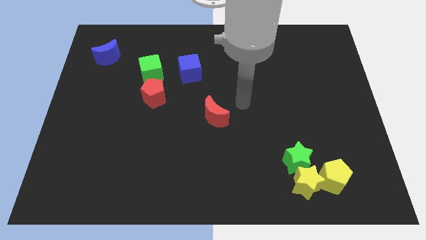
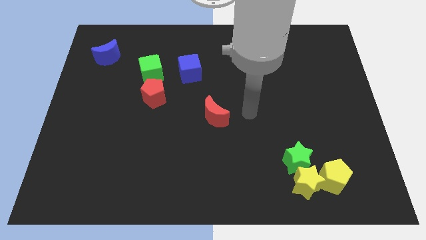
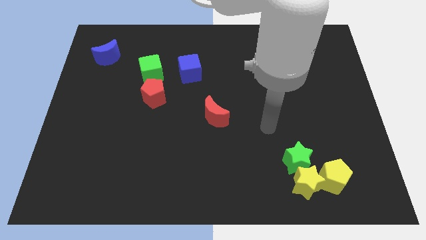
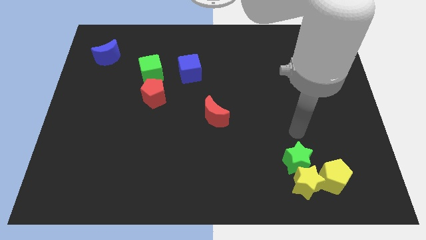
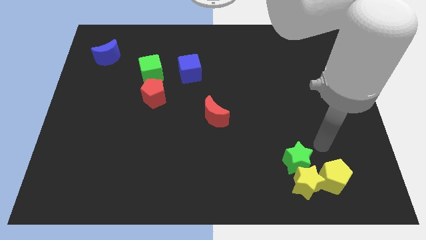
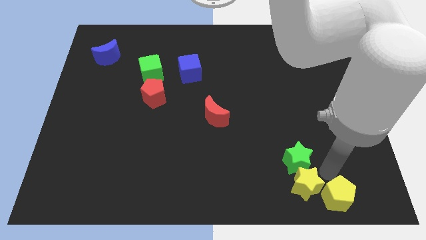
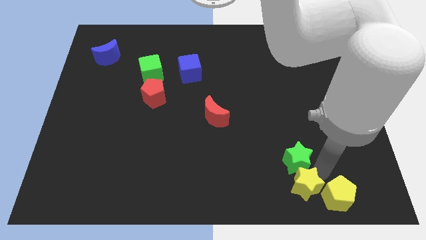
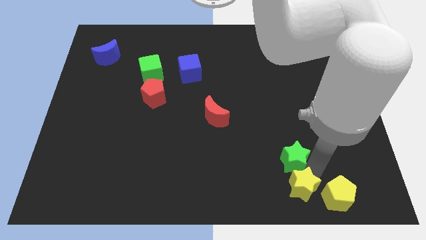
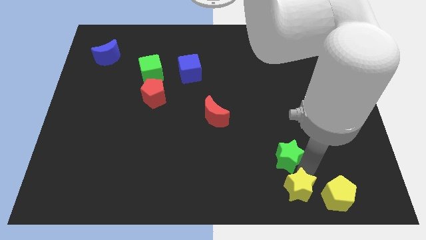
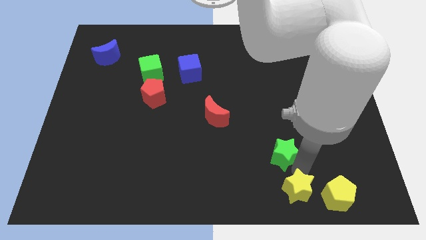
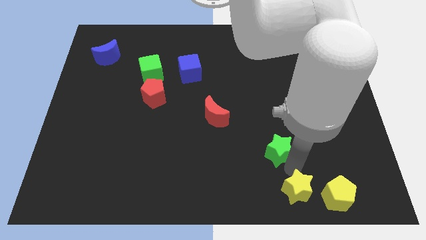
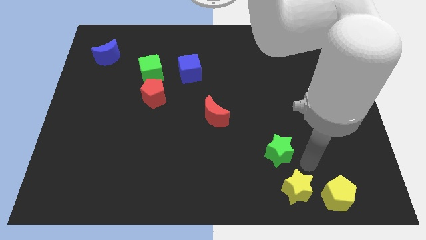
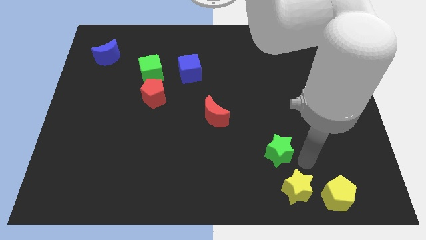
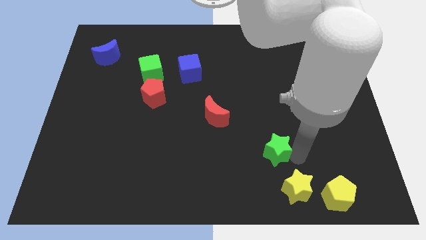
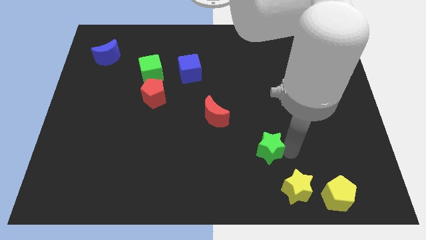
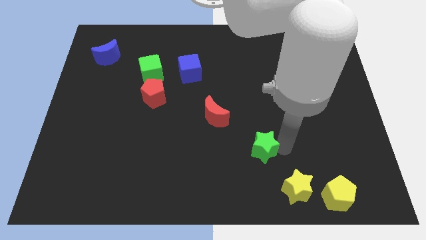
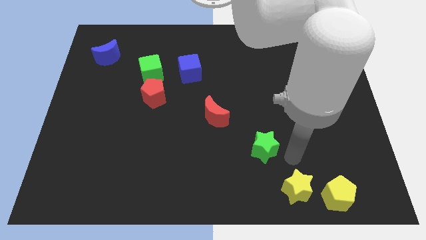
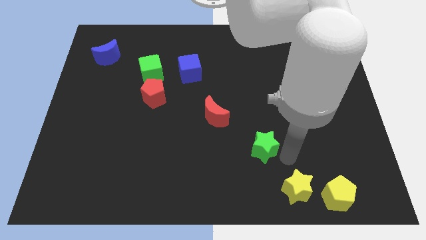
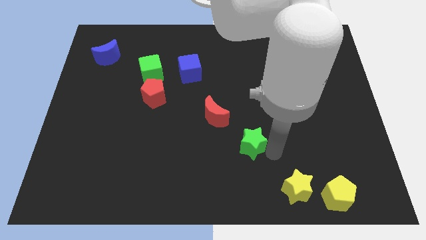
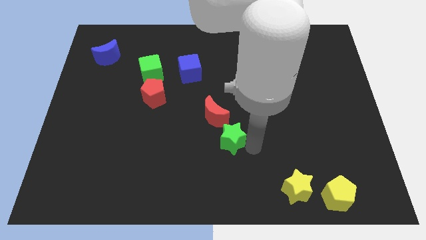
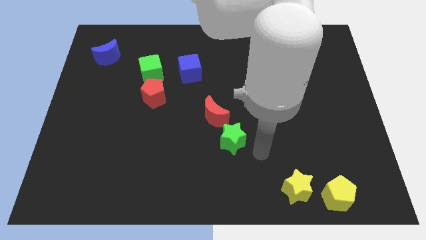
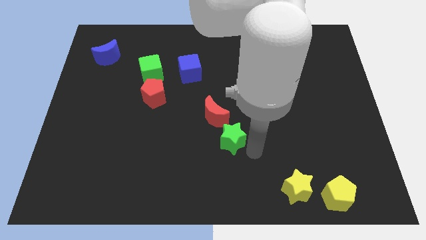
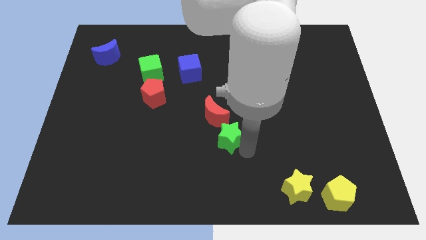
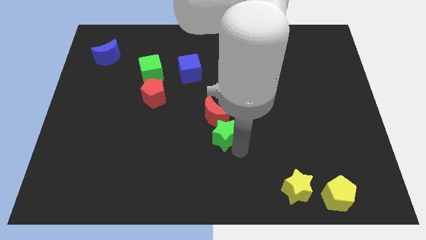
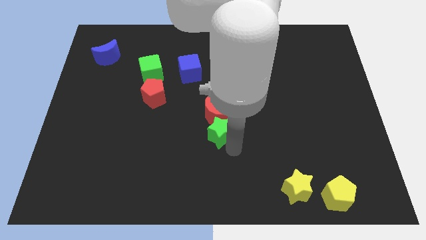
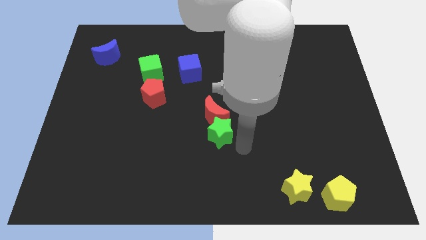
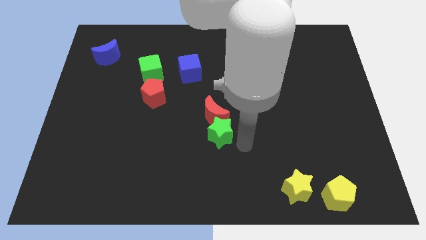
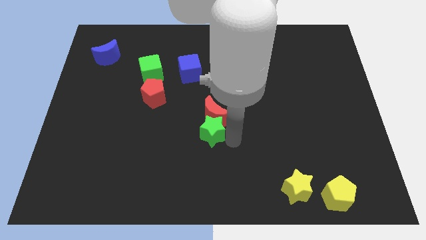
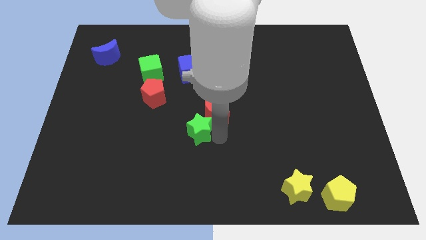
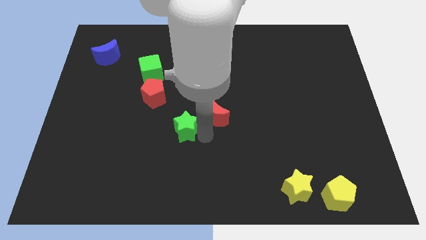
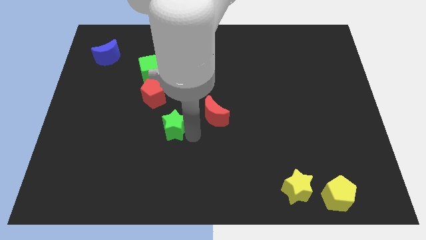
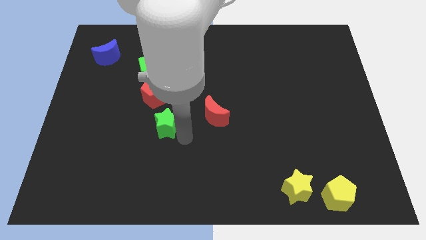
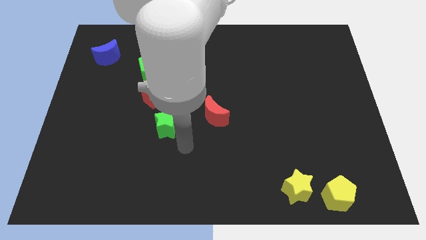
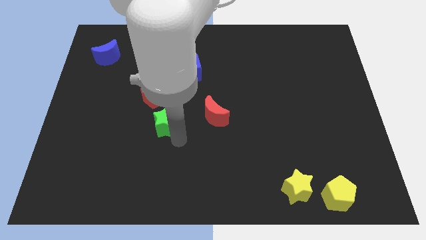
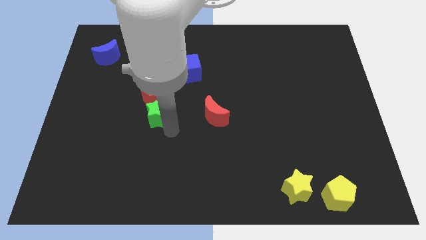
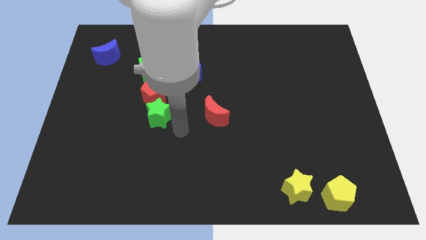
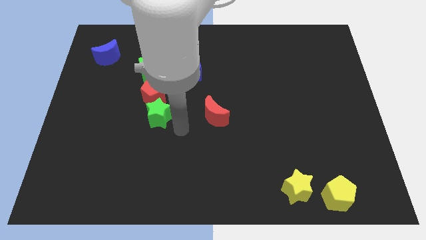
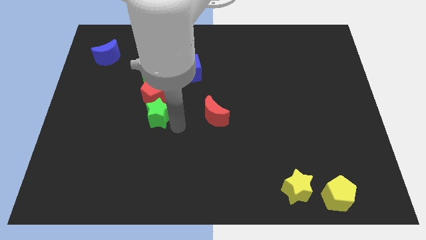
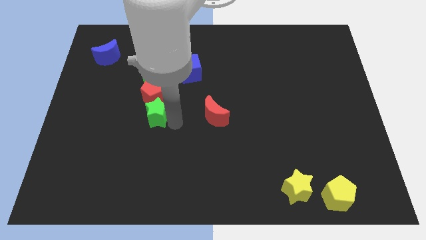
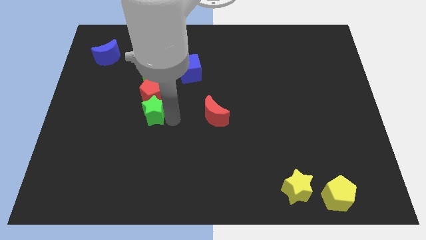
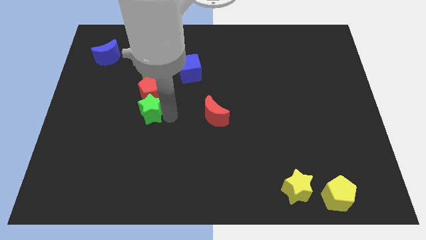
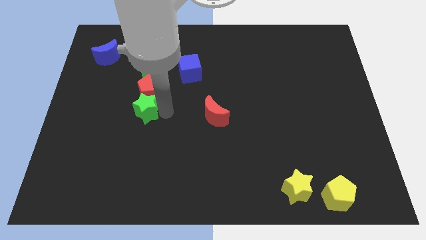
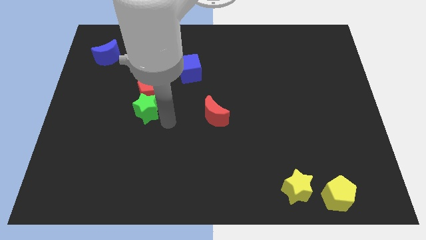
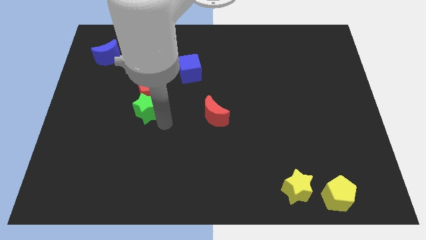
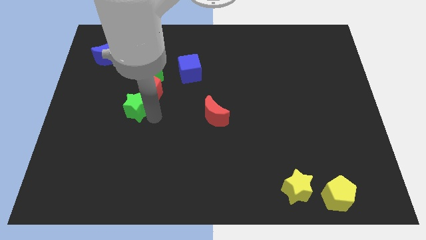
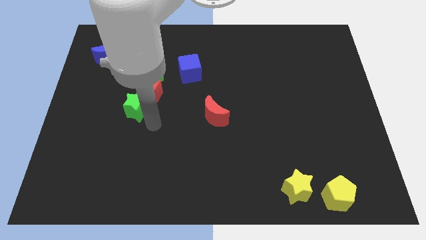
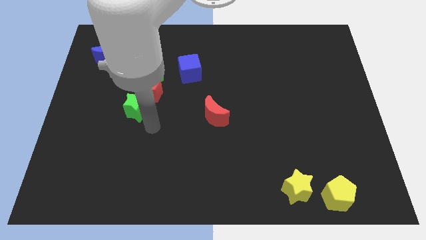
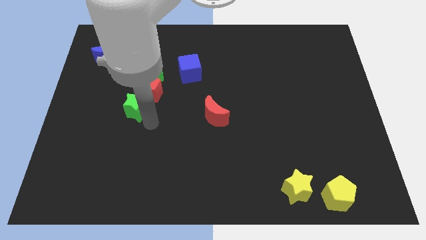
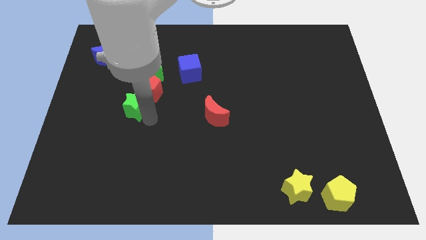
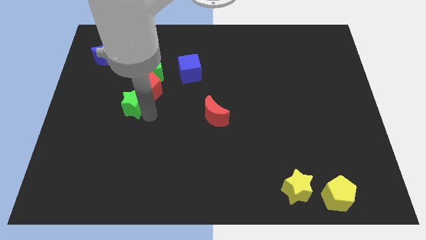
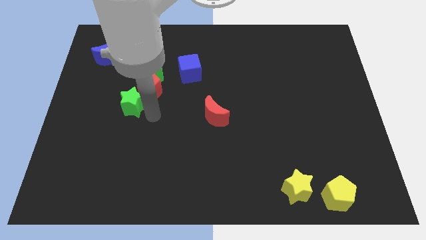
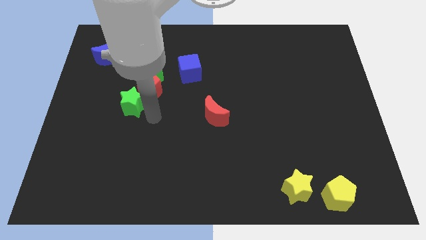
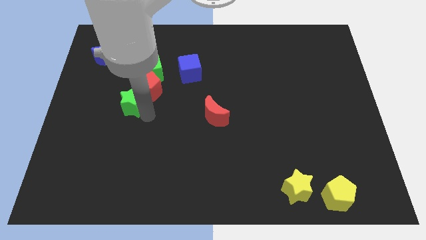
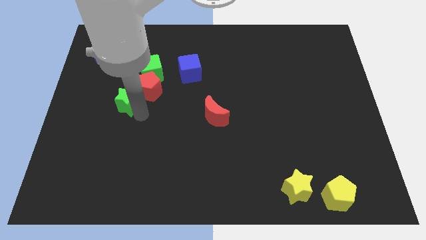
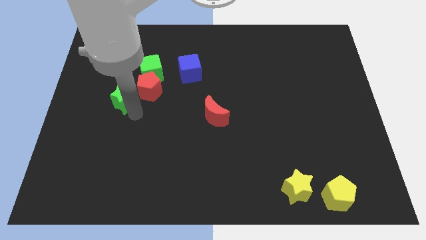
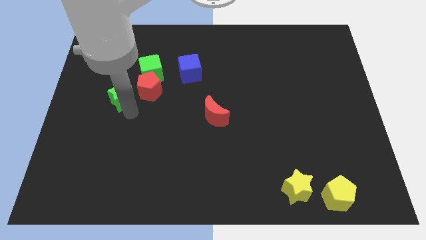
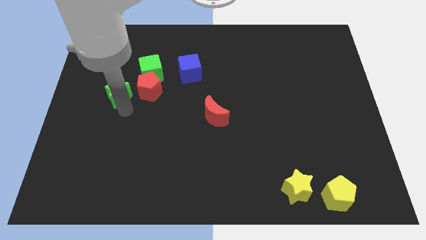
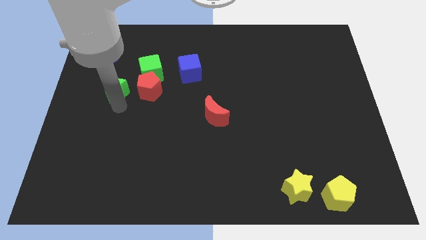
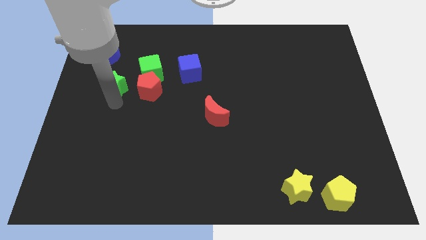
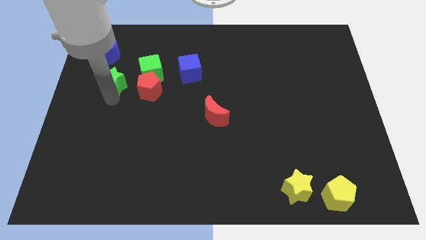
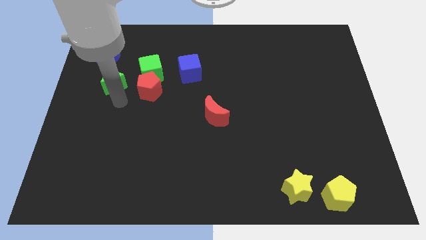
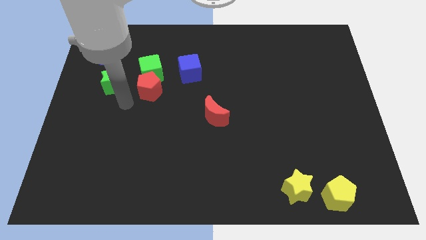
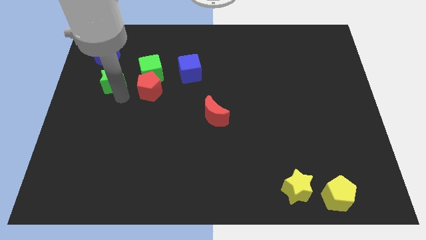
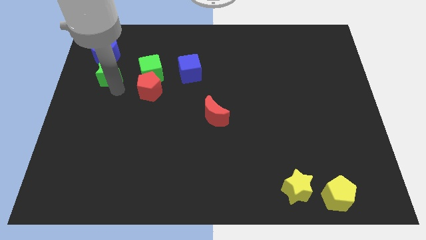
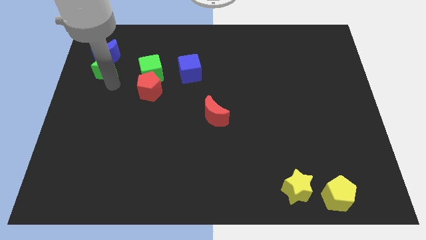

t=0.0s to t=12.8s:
slide the green star to the blue moon
